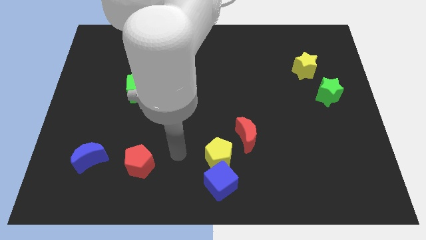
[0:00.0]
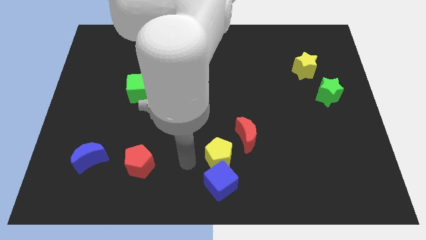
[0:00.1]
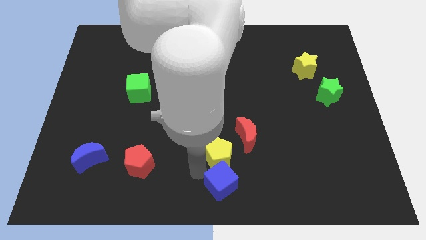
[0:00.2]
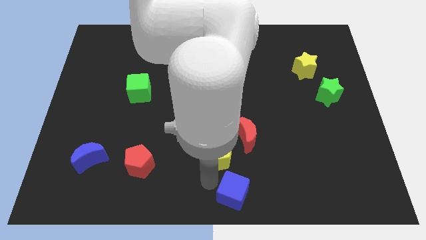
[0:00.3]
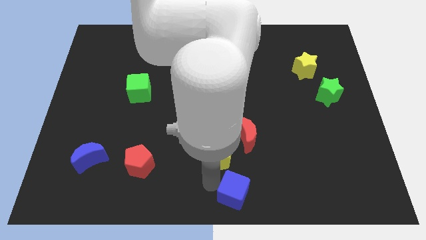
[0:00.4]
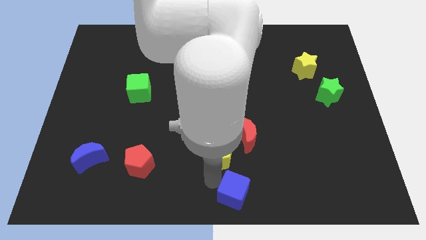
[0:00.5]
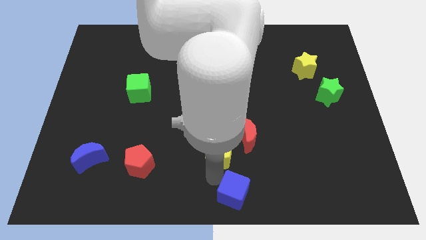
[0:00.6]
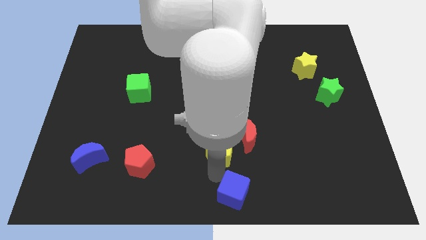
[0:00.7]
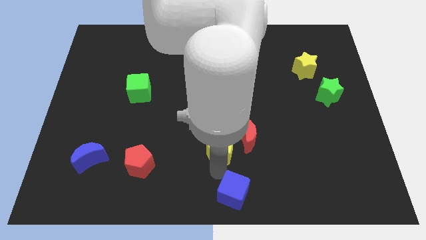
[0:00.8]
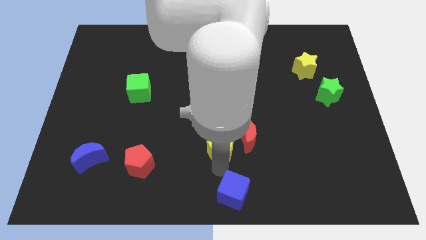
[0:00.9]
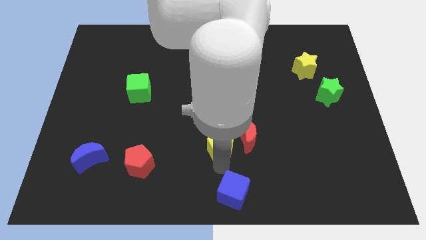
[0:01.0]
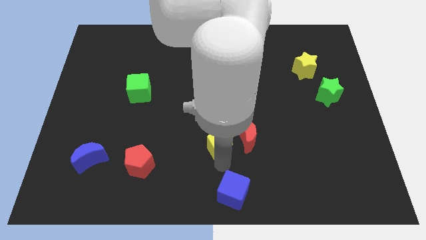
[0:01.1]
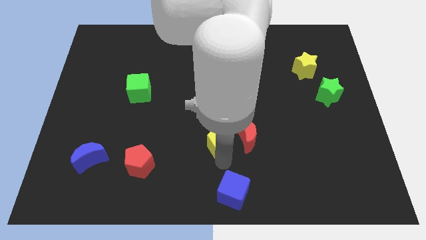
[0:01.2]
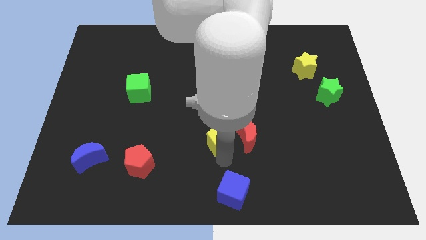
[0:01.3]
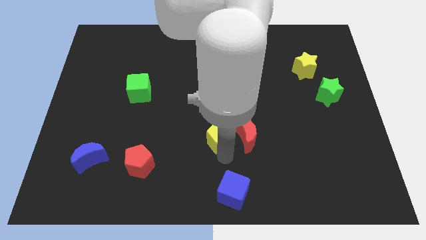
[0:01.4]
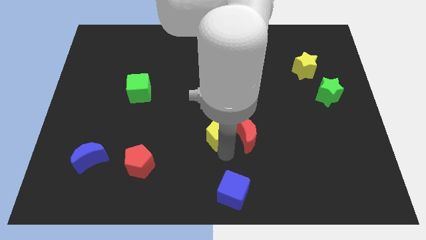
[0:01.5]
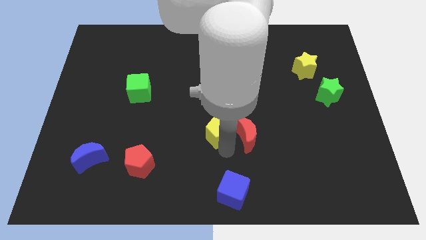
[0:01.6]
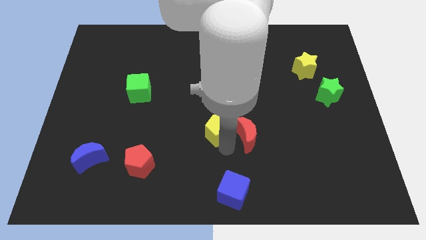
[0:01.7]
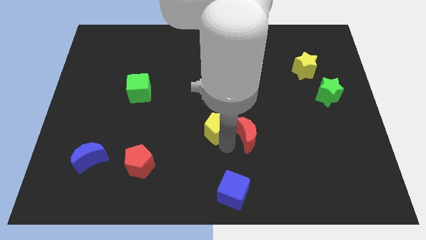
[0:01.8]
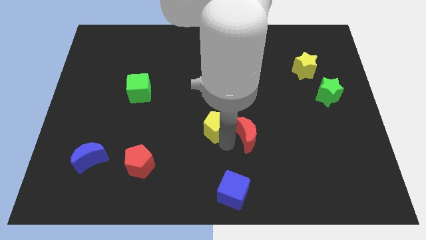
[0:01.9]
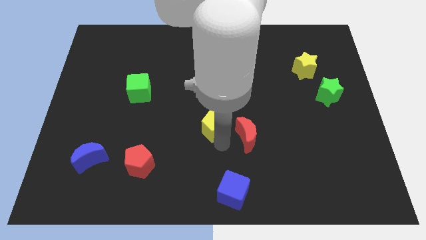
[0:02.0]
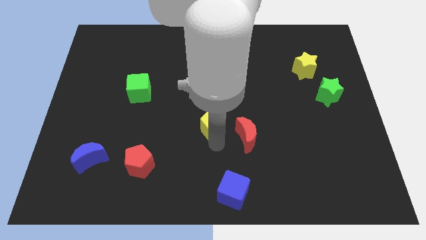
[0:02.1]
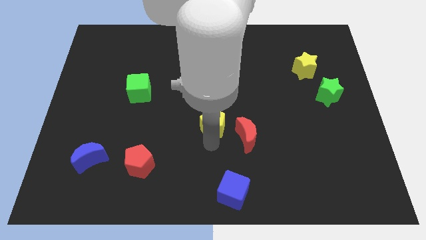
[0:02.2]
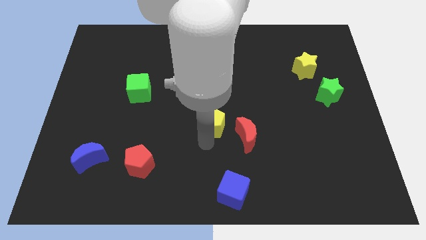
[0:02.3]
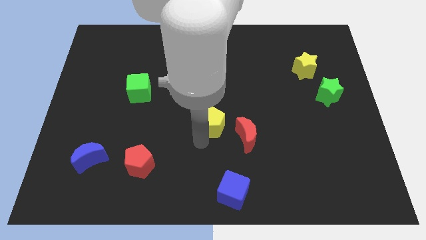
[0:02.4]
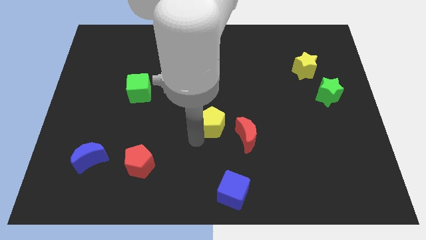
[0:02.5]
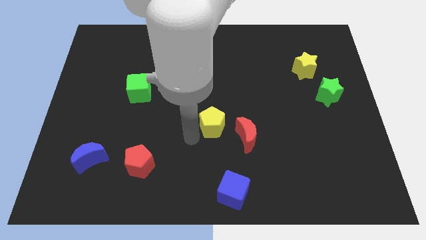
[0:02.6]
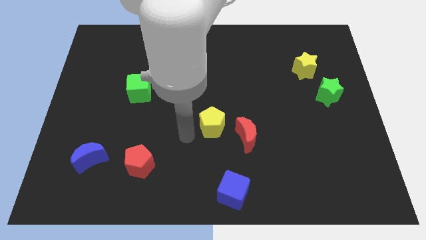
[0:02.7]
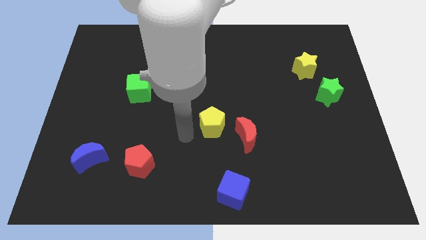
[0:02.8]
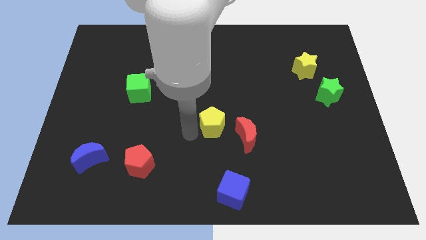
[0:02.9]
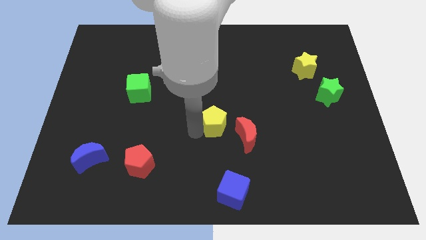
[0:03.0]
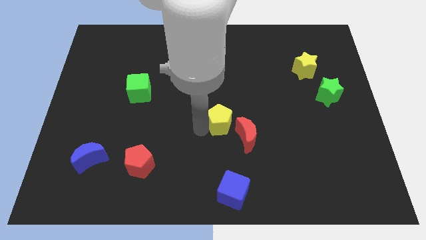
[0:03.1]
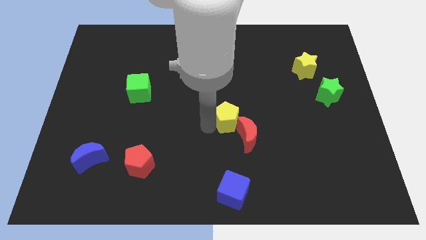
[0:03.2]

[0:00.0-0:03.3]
slightly move the yellow pentagon up and to the right diagonally

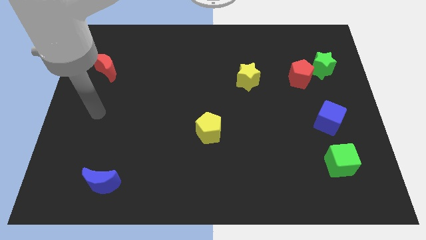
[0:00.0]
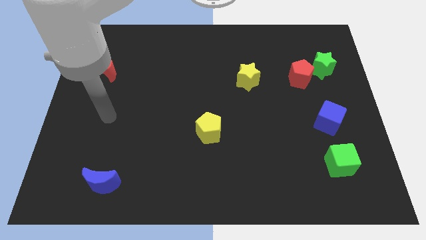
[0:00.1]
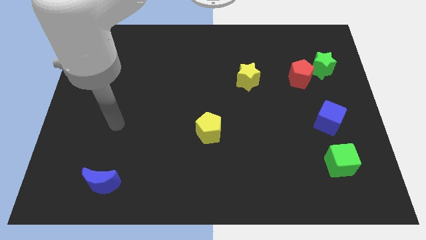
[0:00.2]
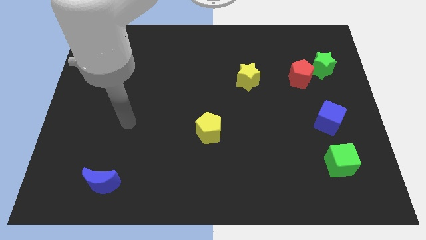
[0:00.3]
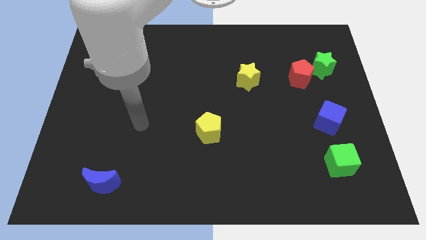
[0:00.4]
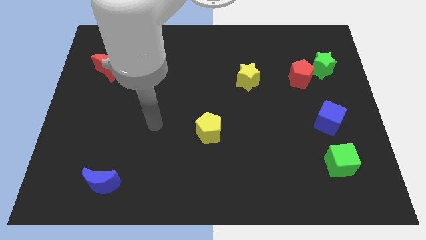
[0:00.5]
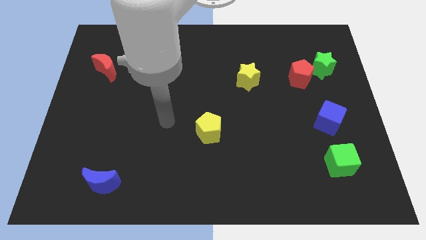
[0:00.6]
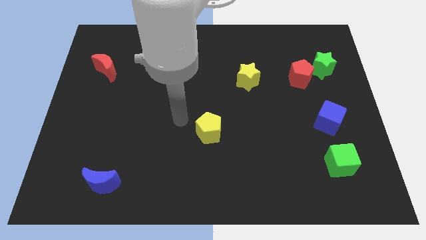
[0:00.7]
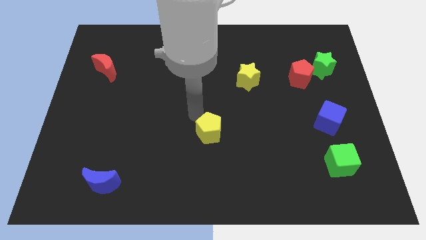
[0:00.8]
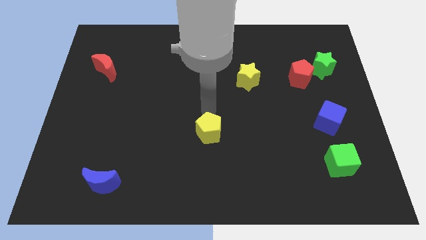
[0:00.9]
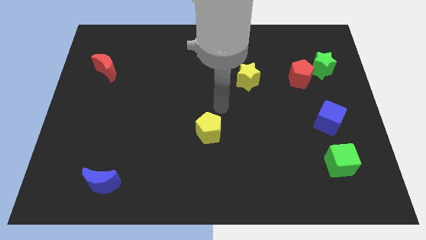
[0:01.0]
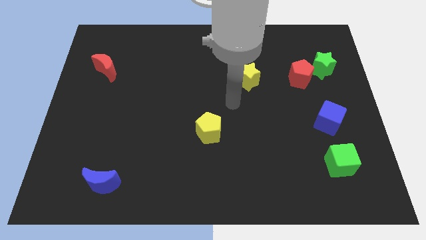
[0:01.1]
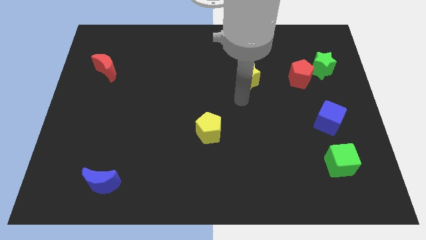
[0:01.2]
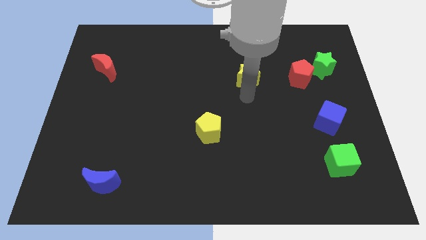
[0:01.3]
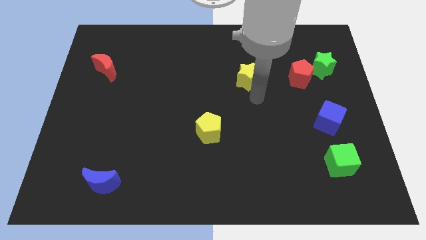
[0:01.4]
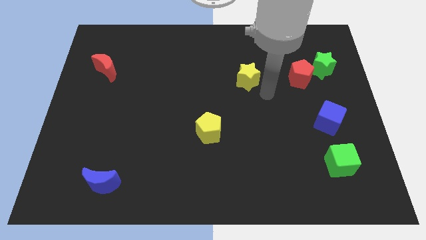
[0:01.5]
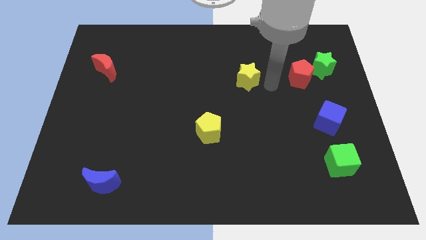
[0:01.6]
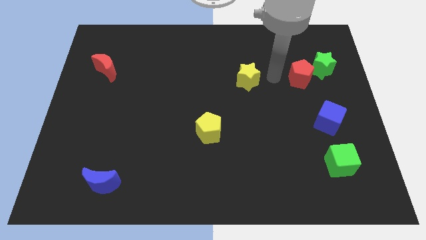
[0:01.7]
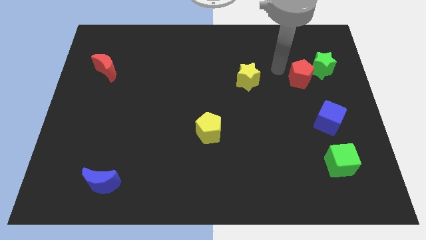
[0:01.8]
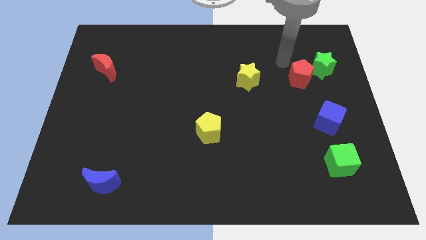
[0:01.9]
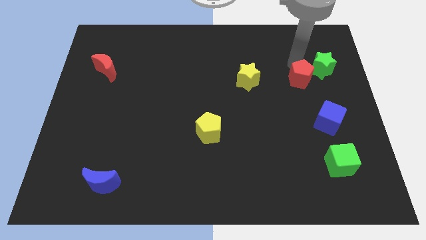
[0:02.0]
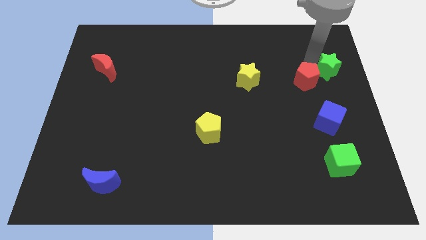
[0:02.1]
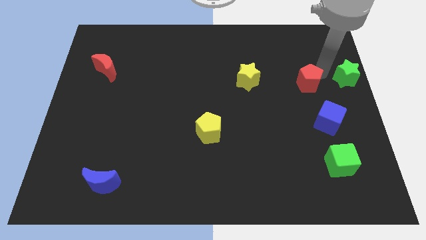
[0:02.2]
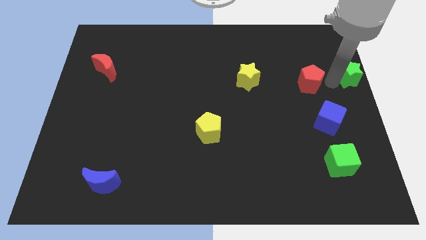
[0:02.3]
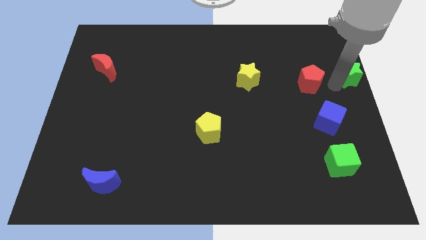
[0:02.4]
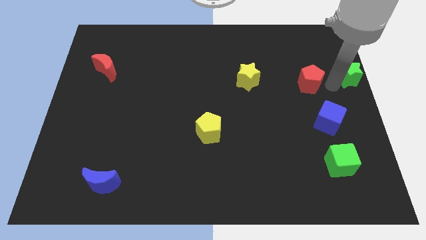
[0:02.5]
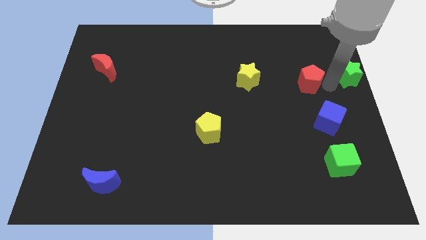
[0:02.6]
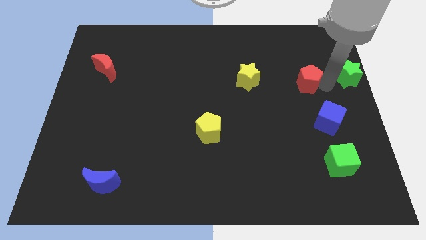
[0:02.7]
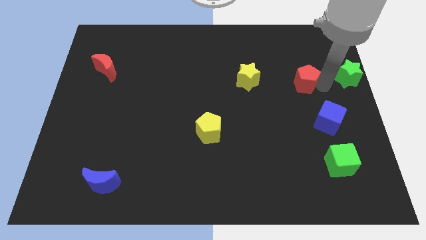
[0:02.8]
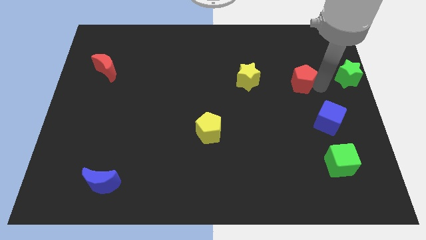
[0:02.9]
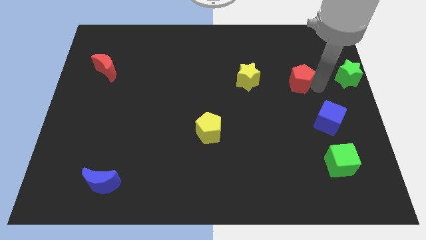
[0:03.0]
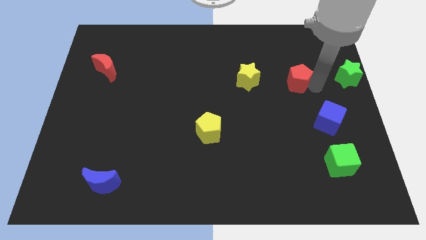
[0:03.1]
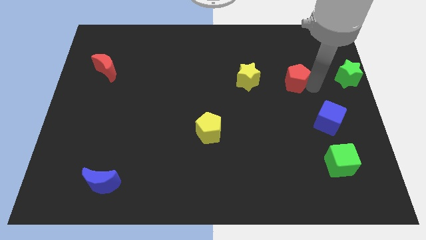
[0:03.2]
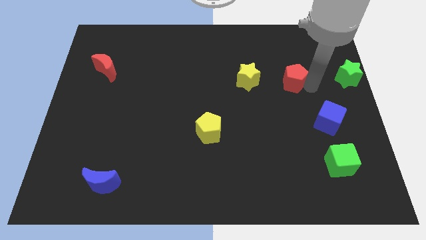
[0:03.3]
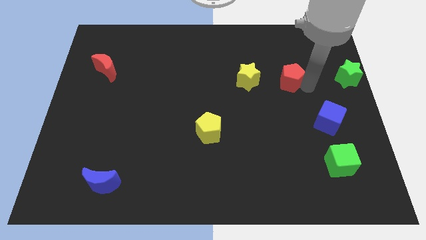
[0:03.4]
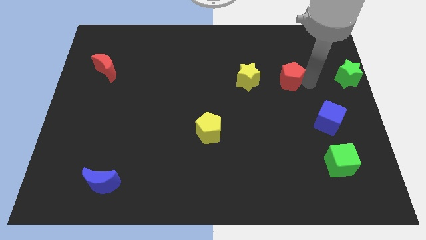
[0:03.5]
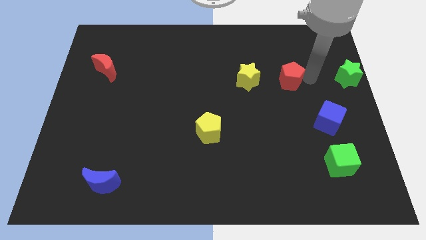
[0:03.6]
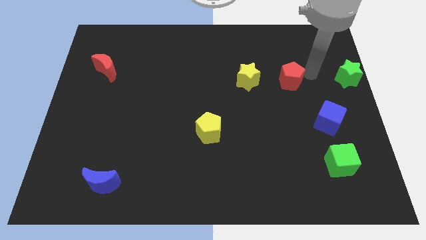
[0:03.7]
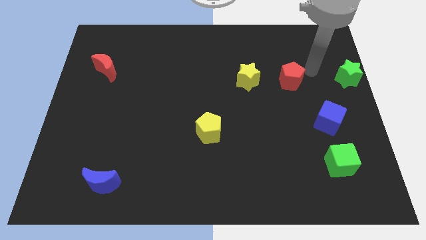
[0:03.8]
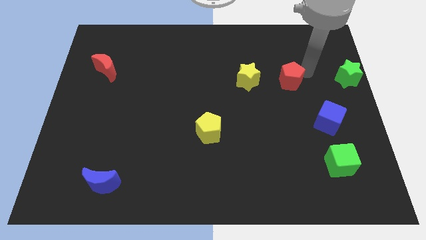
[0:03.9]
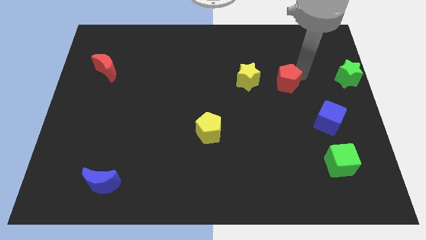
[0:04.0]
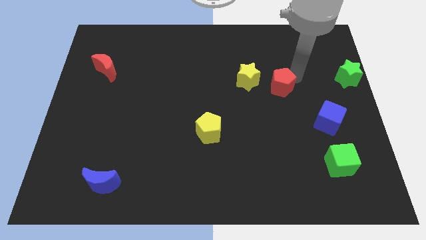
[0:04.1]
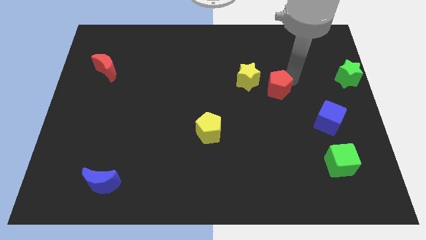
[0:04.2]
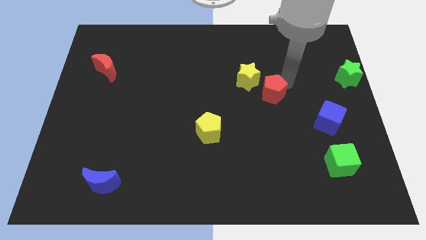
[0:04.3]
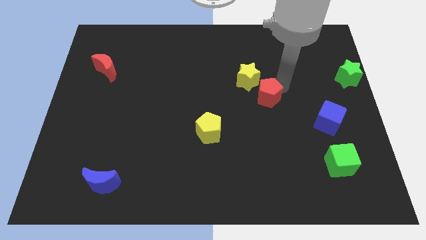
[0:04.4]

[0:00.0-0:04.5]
slide the red pentagon a little to the left
